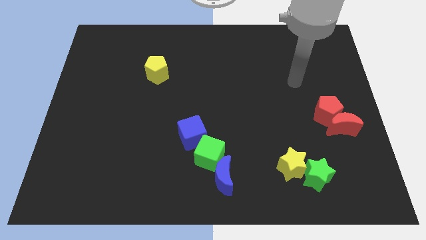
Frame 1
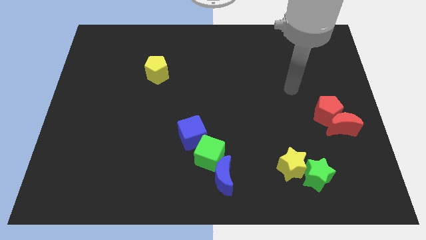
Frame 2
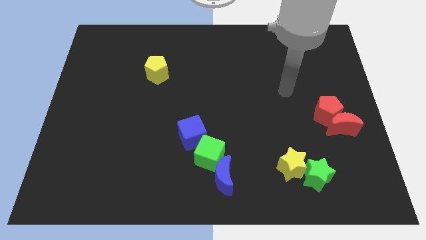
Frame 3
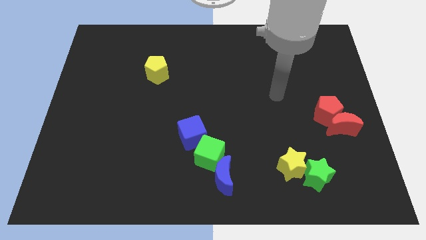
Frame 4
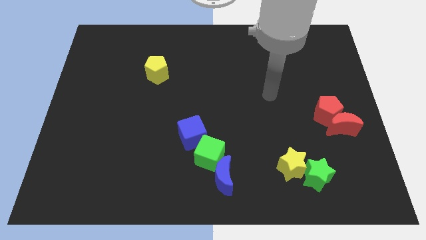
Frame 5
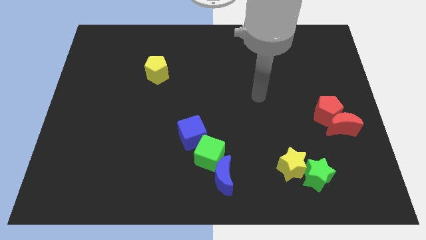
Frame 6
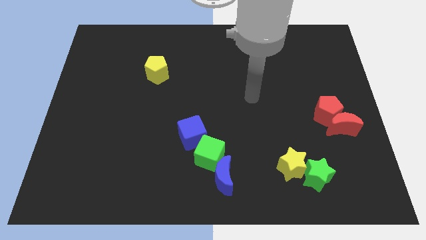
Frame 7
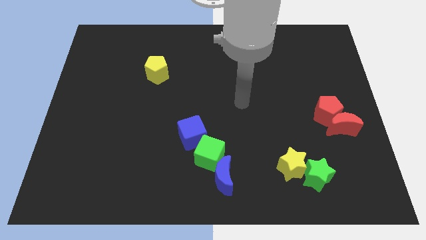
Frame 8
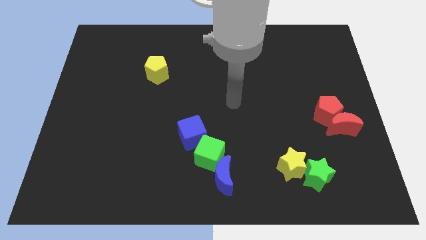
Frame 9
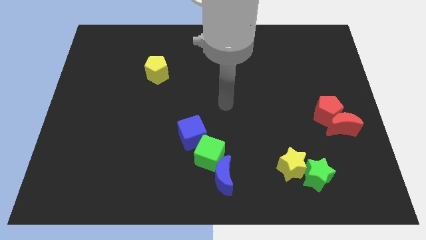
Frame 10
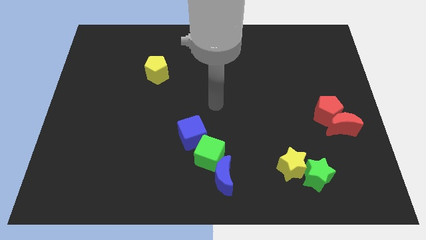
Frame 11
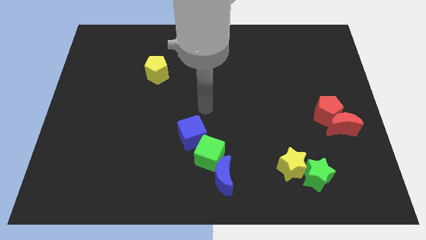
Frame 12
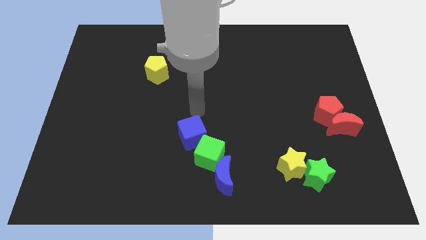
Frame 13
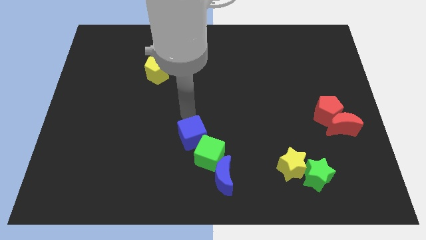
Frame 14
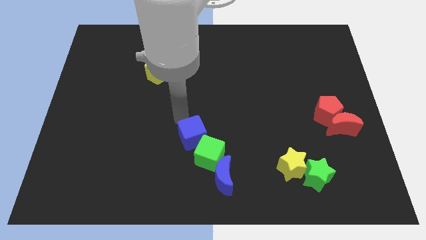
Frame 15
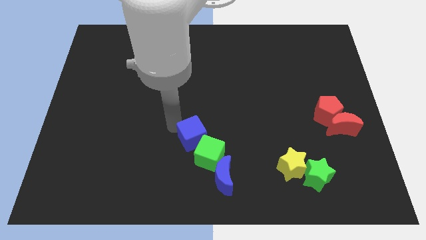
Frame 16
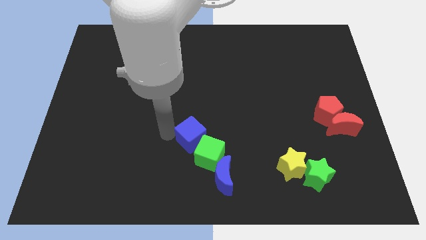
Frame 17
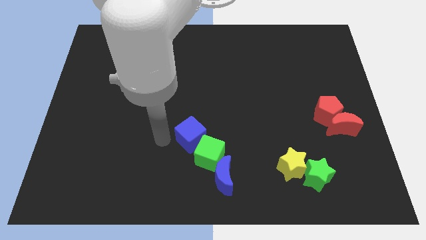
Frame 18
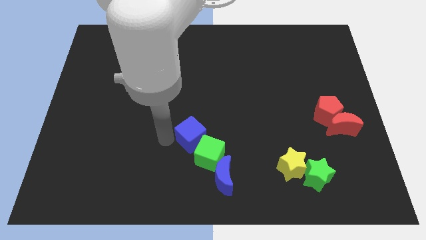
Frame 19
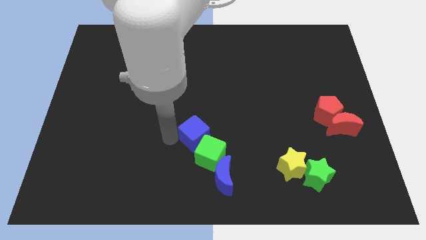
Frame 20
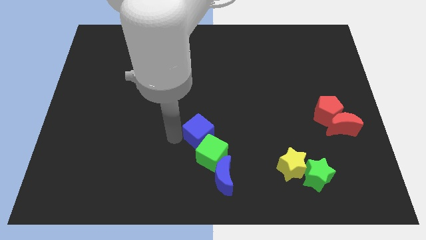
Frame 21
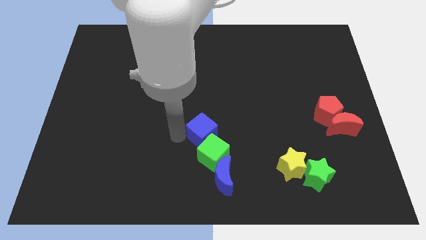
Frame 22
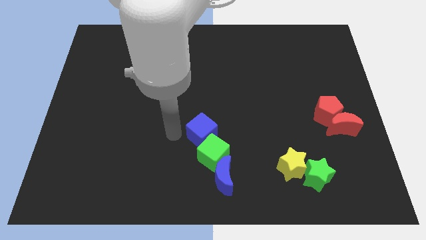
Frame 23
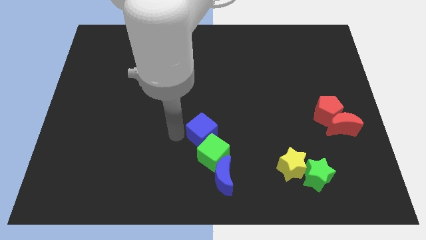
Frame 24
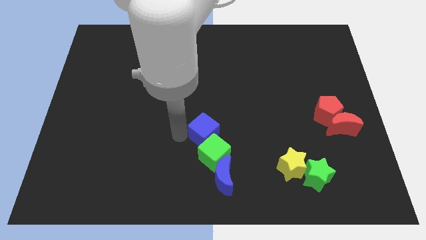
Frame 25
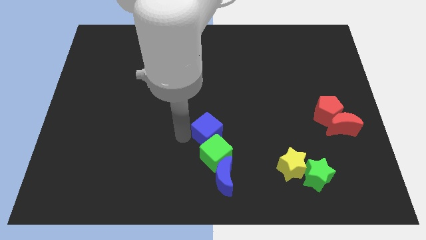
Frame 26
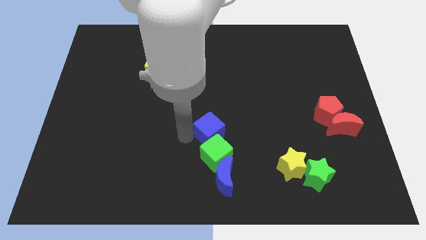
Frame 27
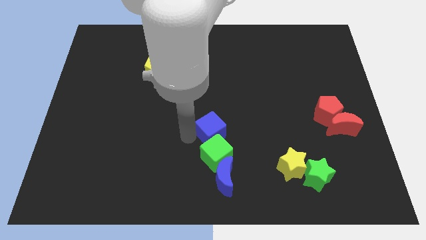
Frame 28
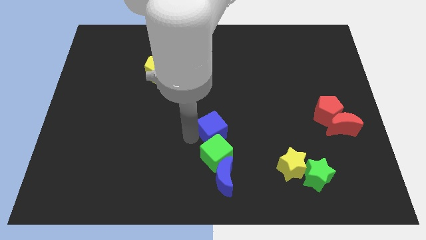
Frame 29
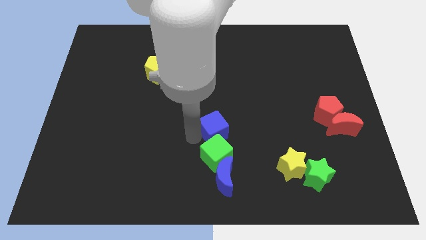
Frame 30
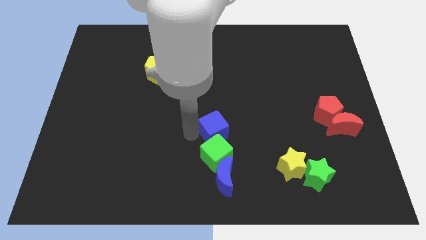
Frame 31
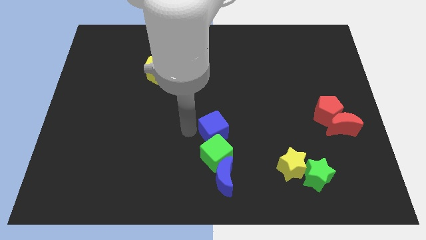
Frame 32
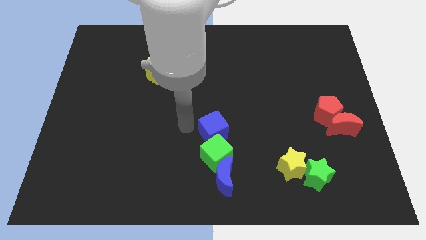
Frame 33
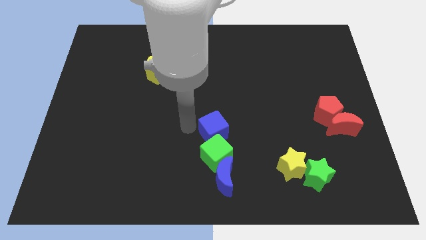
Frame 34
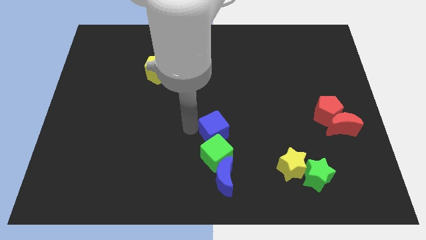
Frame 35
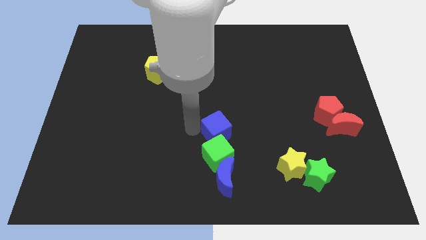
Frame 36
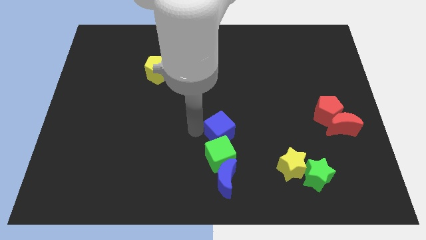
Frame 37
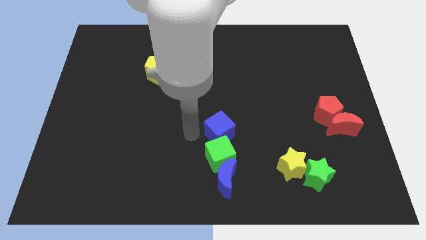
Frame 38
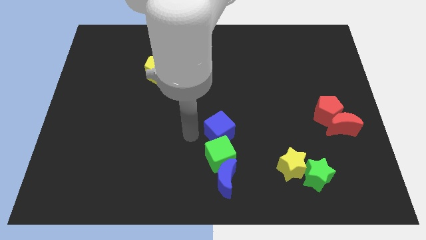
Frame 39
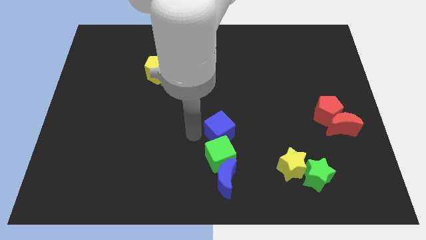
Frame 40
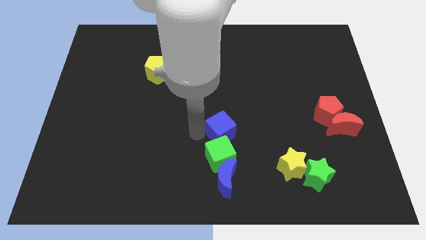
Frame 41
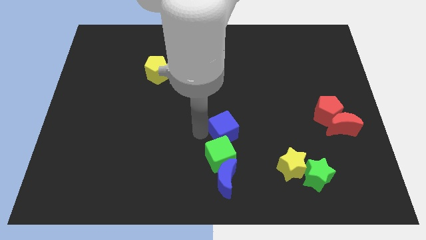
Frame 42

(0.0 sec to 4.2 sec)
push the blue cube slightly to the right

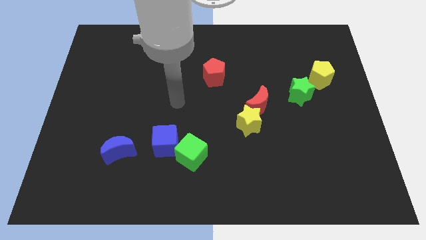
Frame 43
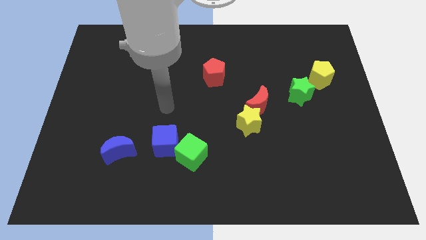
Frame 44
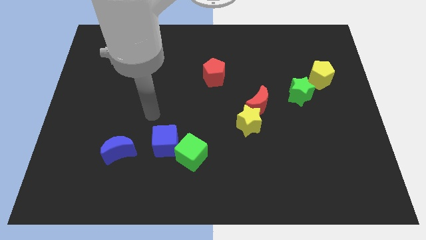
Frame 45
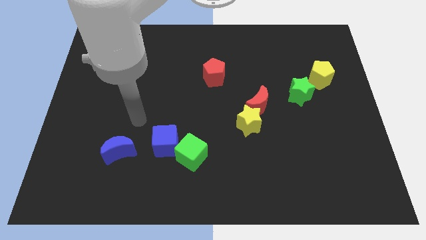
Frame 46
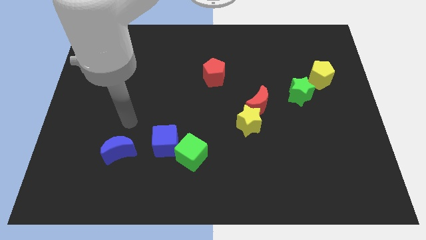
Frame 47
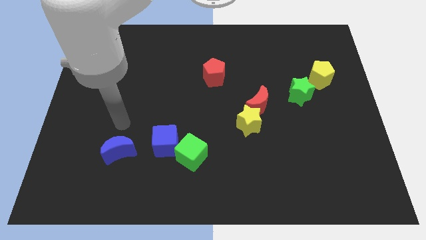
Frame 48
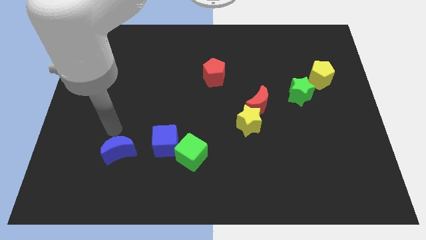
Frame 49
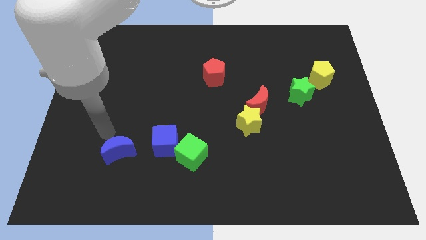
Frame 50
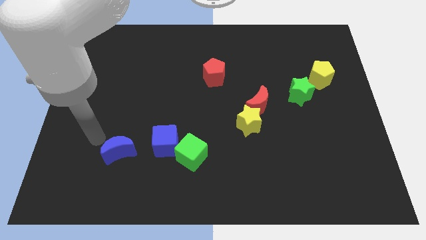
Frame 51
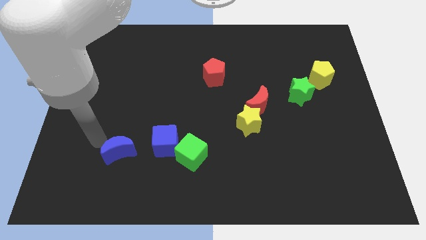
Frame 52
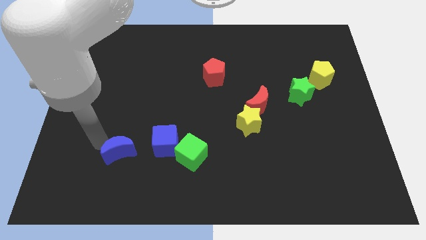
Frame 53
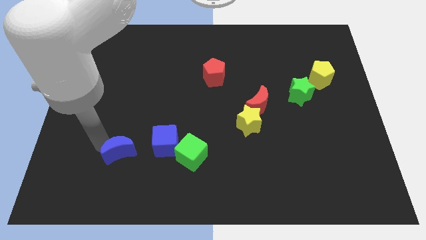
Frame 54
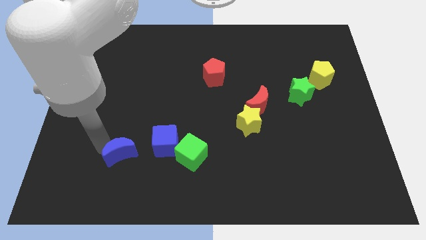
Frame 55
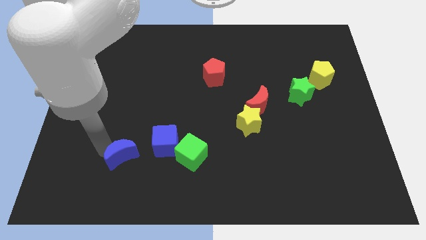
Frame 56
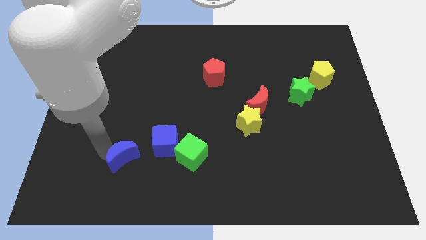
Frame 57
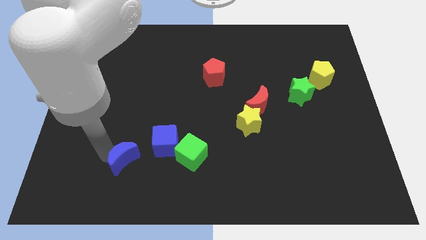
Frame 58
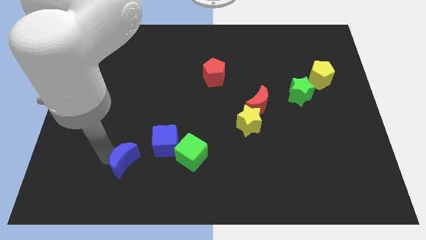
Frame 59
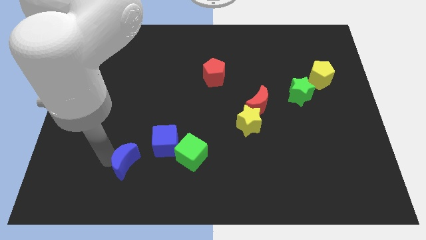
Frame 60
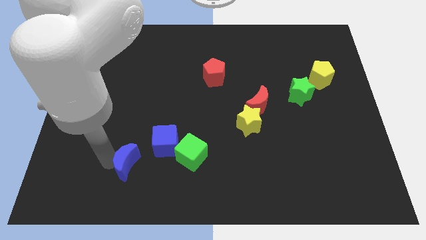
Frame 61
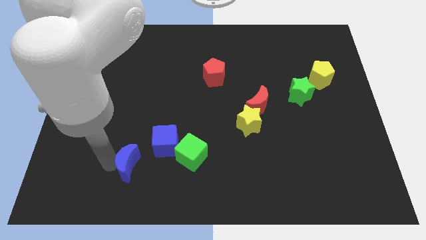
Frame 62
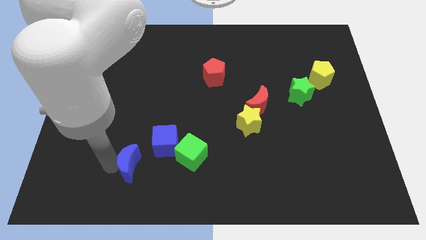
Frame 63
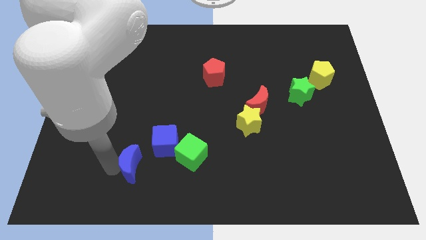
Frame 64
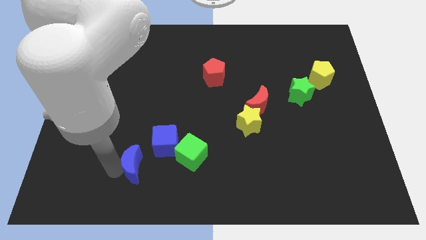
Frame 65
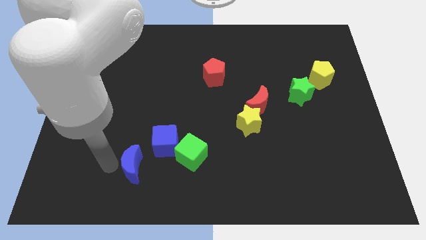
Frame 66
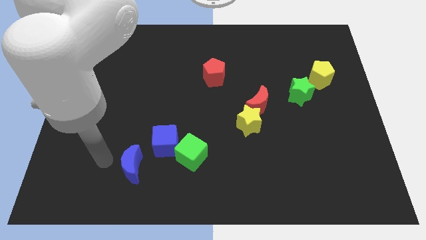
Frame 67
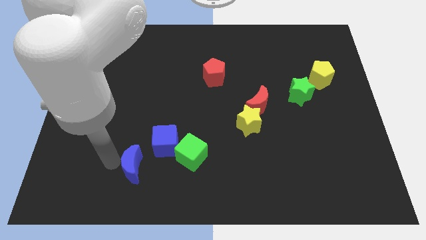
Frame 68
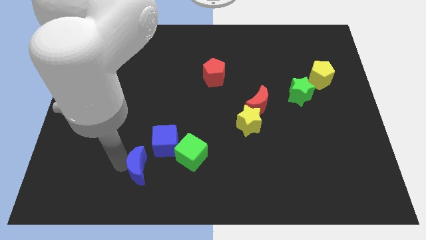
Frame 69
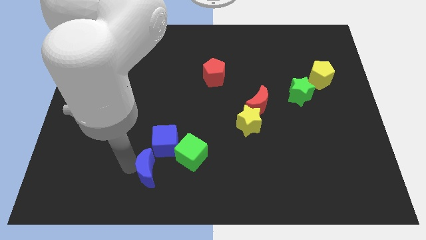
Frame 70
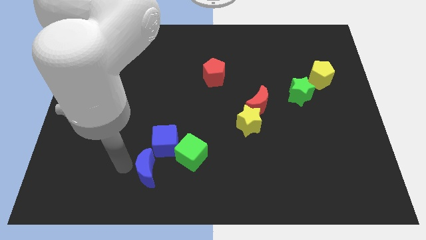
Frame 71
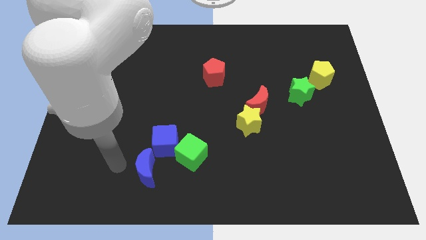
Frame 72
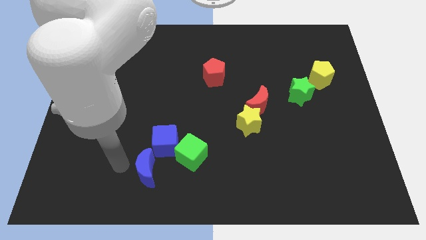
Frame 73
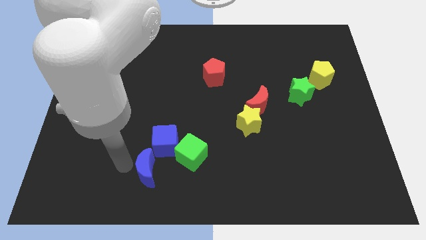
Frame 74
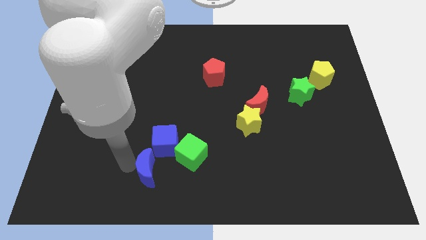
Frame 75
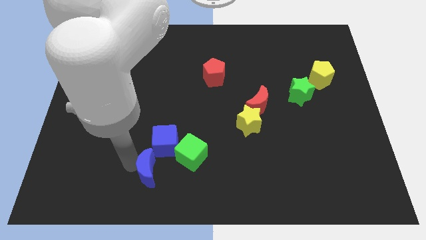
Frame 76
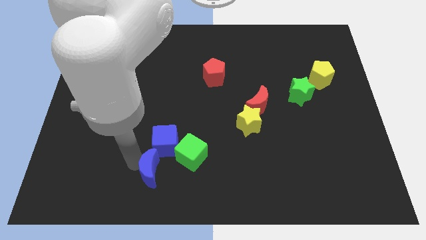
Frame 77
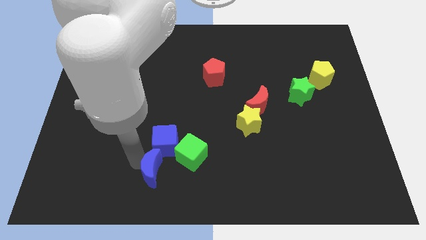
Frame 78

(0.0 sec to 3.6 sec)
slightly move the blue moon right
